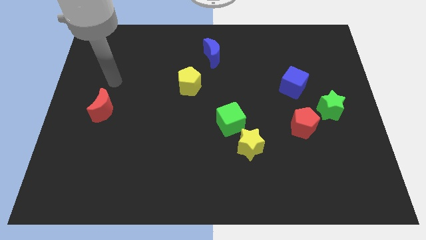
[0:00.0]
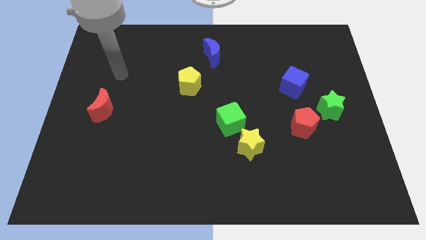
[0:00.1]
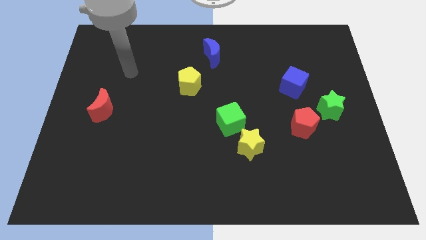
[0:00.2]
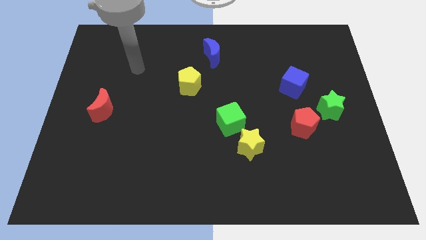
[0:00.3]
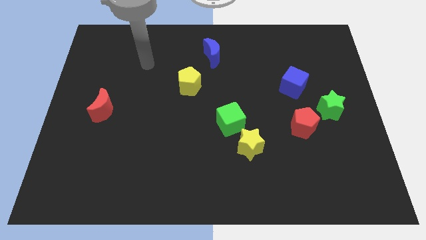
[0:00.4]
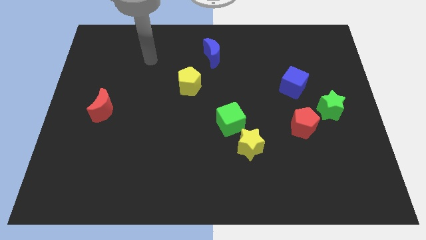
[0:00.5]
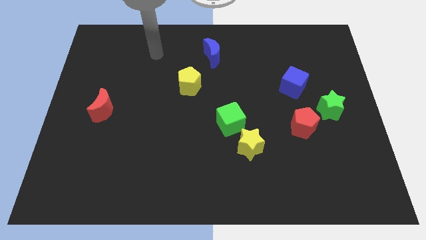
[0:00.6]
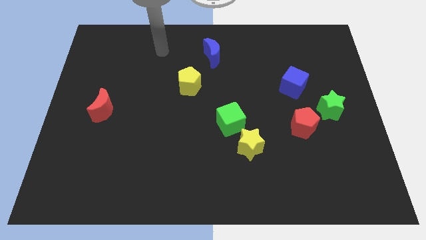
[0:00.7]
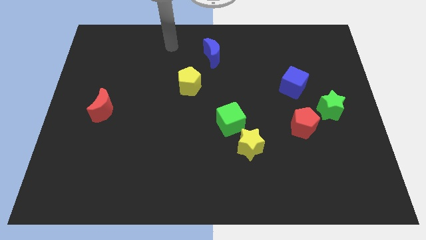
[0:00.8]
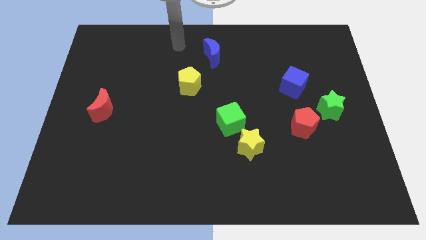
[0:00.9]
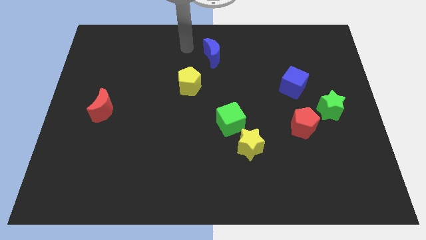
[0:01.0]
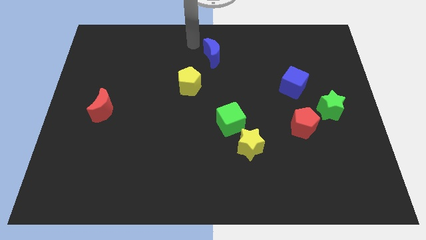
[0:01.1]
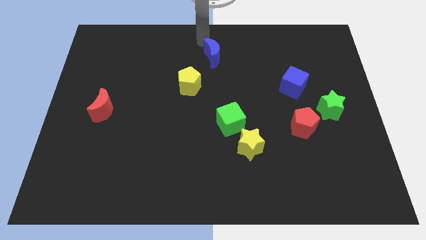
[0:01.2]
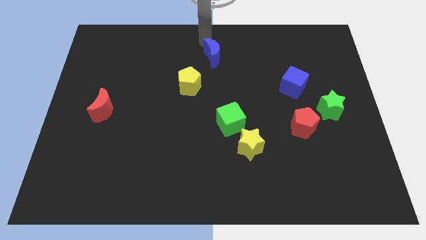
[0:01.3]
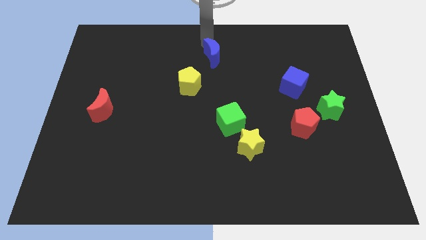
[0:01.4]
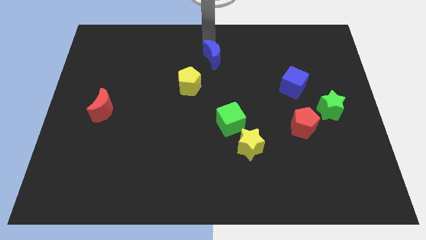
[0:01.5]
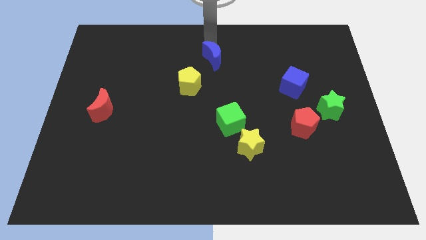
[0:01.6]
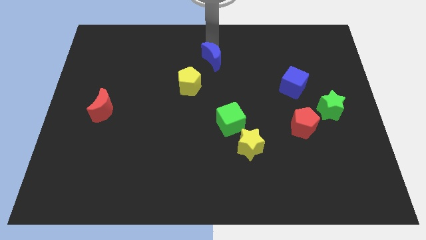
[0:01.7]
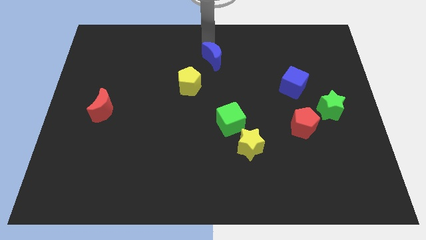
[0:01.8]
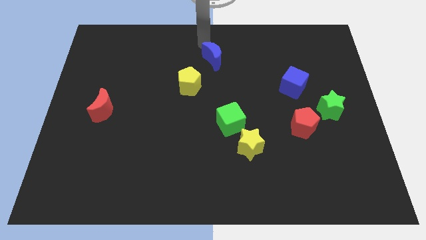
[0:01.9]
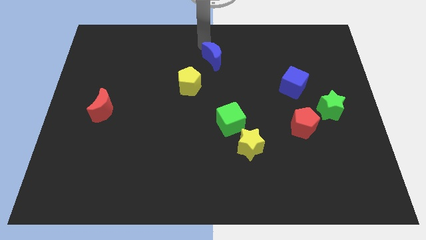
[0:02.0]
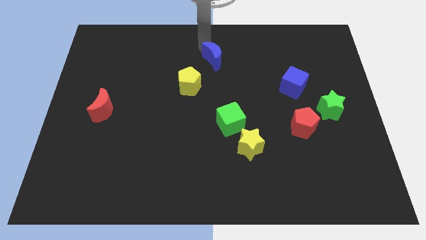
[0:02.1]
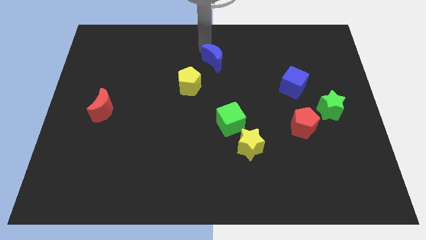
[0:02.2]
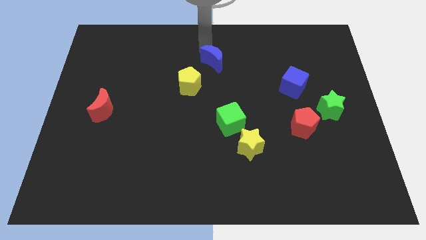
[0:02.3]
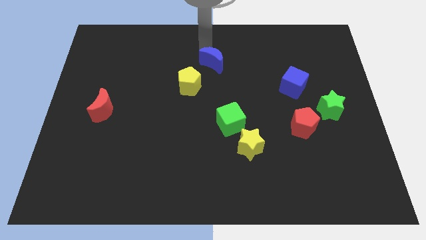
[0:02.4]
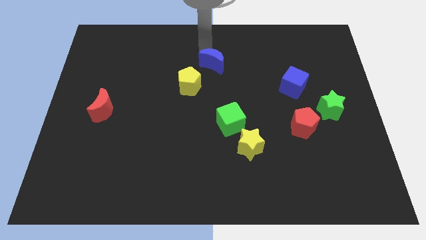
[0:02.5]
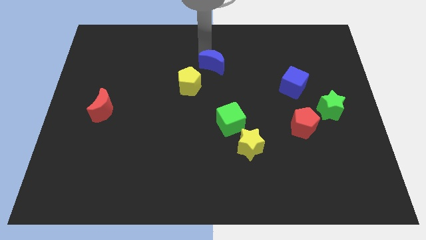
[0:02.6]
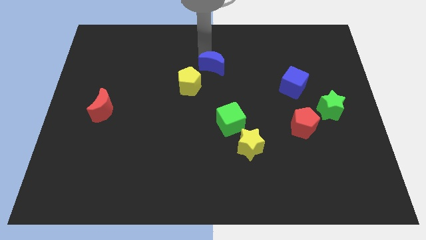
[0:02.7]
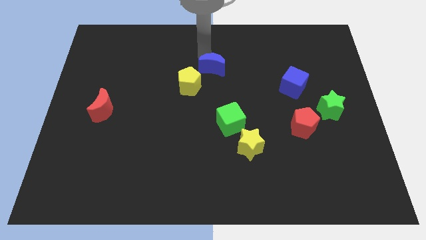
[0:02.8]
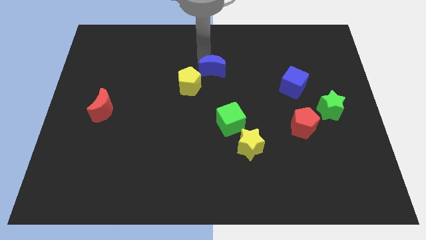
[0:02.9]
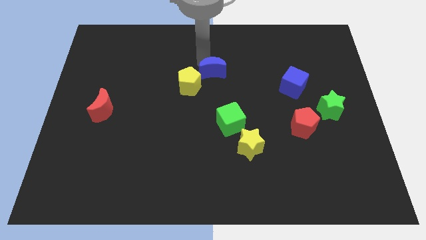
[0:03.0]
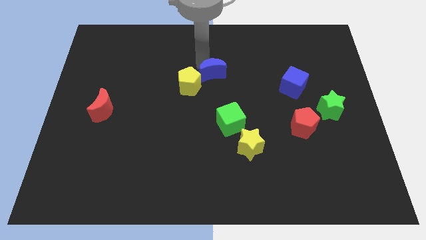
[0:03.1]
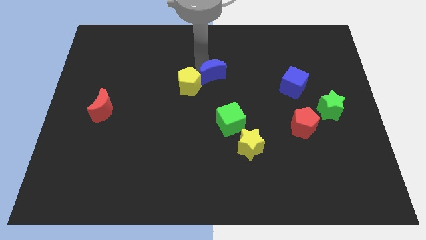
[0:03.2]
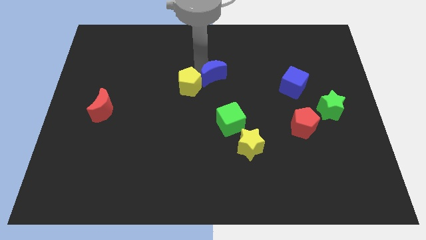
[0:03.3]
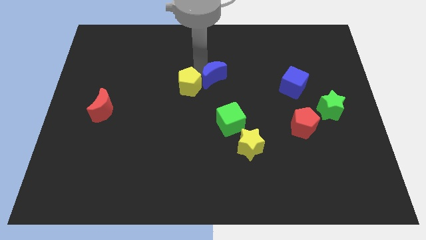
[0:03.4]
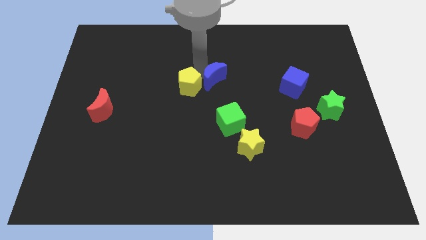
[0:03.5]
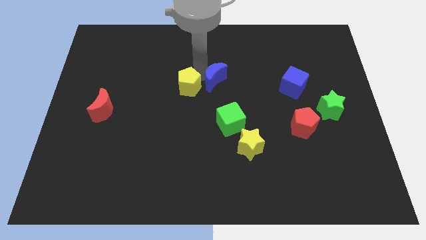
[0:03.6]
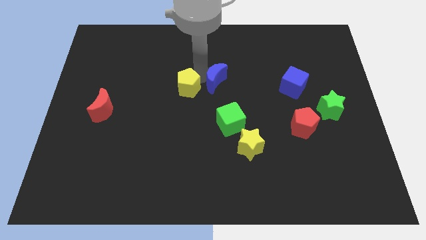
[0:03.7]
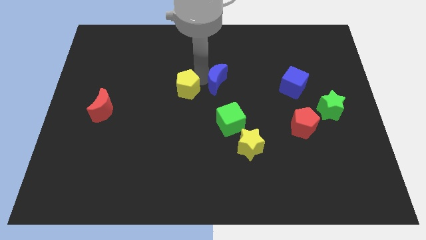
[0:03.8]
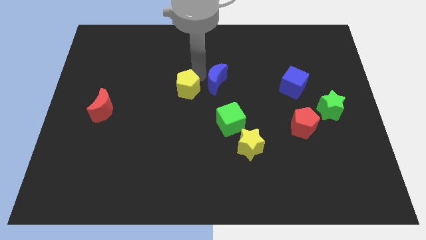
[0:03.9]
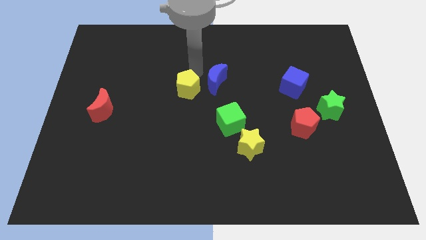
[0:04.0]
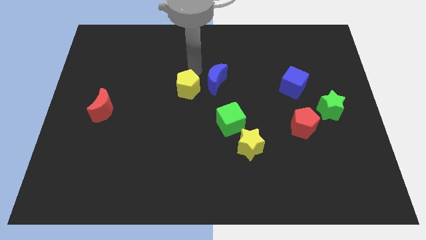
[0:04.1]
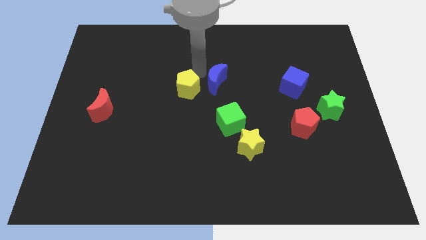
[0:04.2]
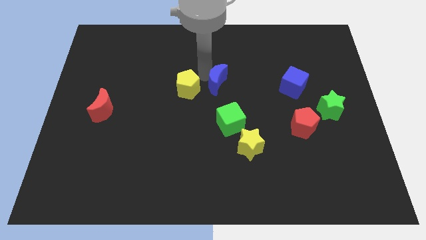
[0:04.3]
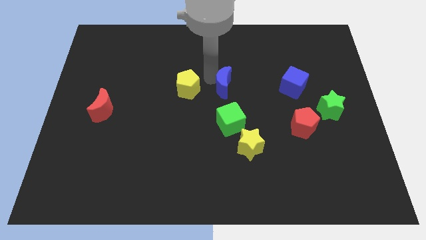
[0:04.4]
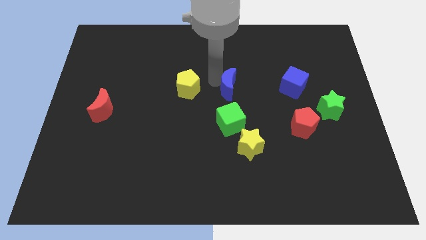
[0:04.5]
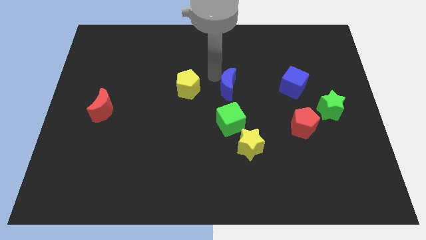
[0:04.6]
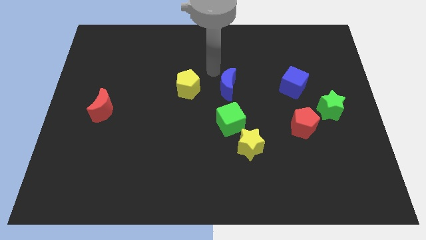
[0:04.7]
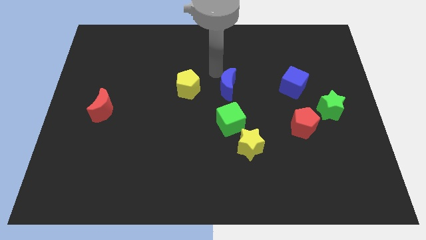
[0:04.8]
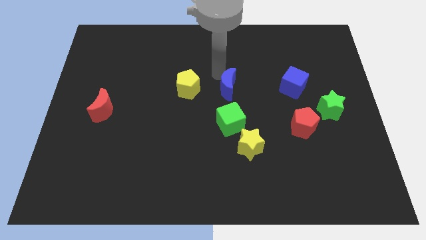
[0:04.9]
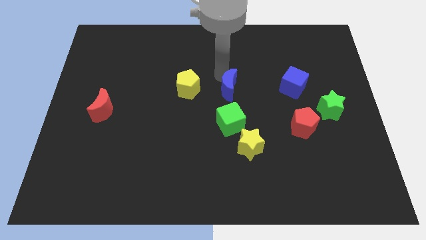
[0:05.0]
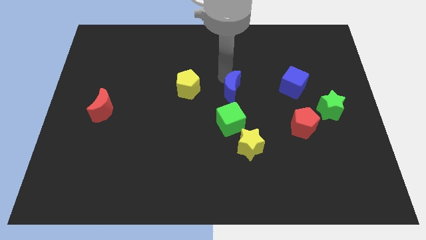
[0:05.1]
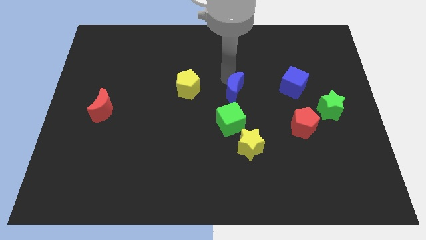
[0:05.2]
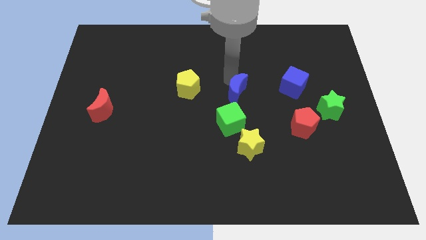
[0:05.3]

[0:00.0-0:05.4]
move the blue moon above the yellow star

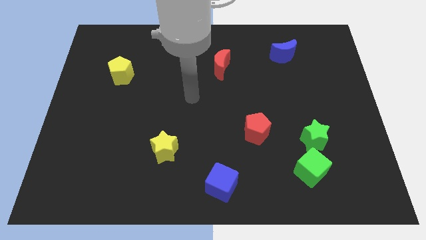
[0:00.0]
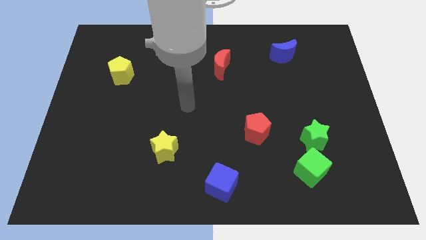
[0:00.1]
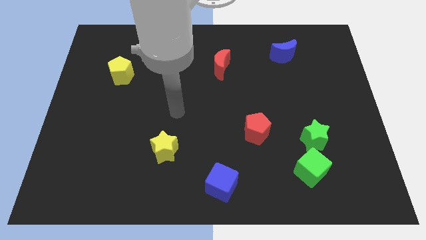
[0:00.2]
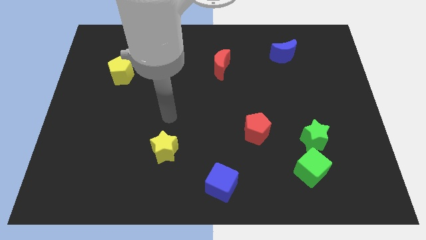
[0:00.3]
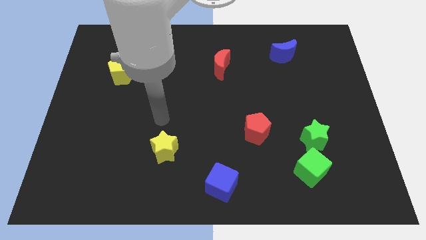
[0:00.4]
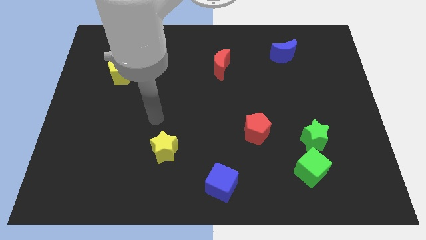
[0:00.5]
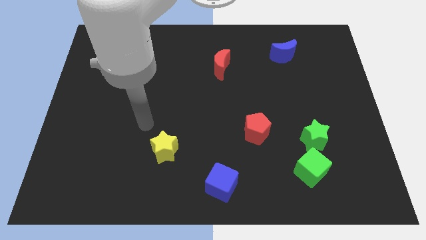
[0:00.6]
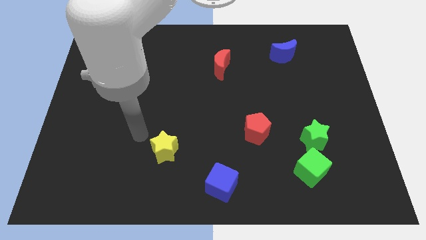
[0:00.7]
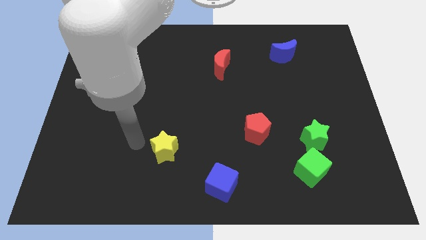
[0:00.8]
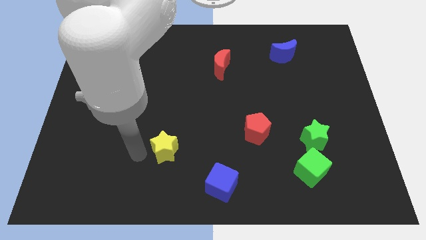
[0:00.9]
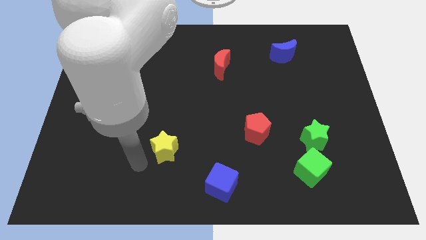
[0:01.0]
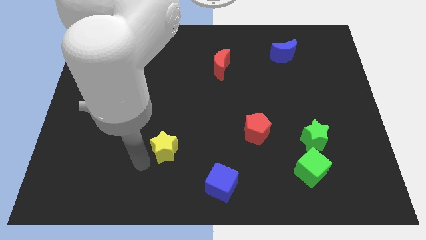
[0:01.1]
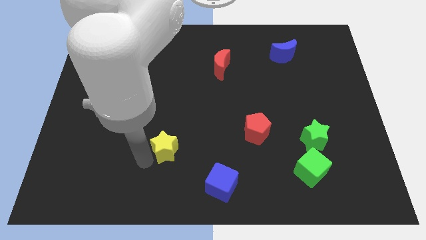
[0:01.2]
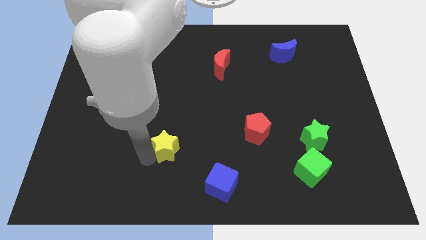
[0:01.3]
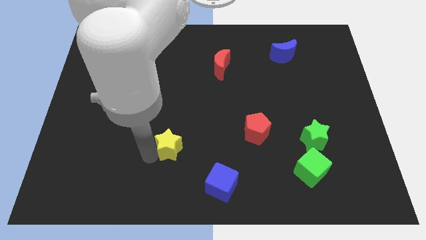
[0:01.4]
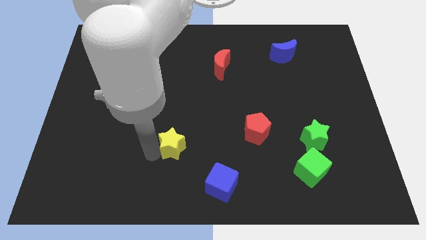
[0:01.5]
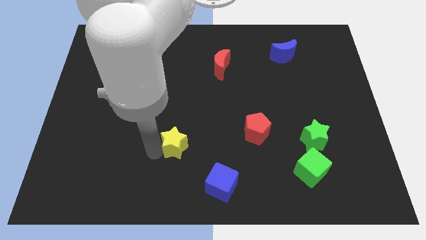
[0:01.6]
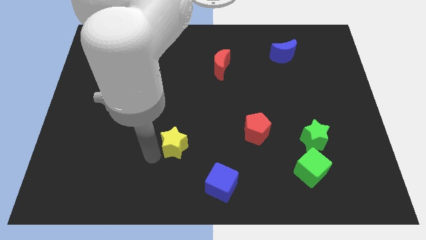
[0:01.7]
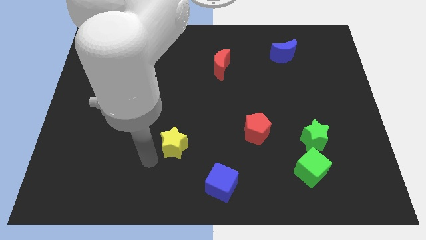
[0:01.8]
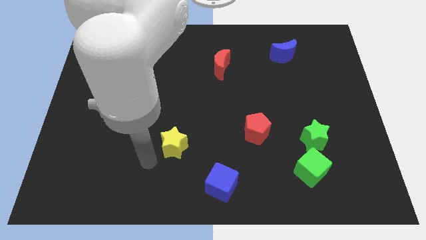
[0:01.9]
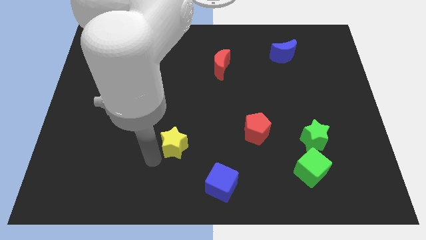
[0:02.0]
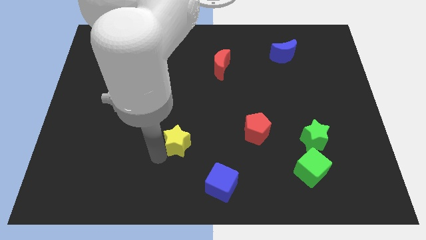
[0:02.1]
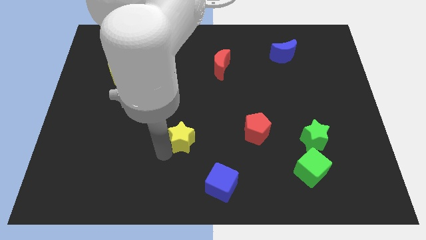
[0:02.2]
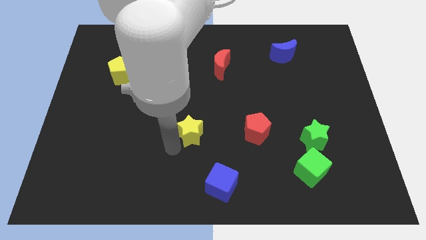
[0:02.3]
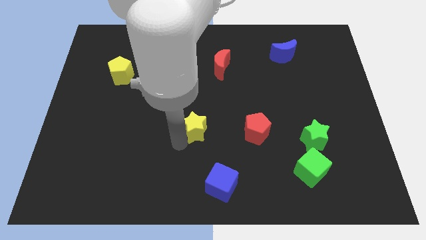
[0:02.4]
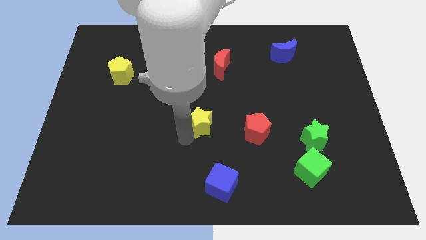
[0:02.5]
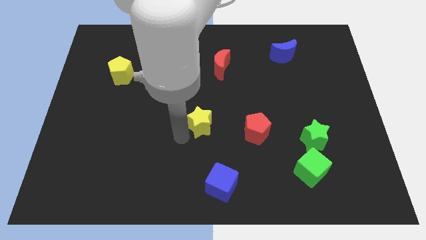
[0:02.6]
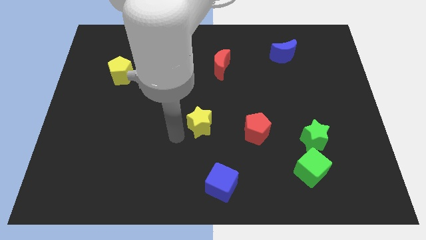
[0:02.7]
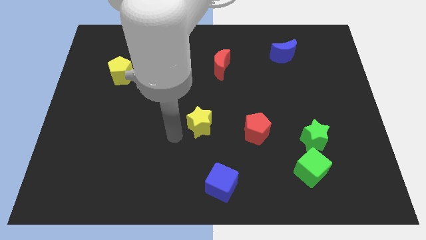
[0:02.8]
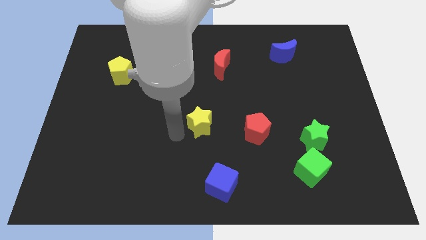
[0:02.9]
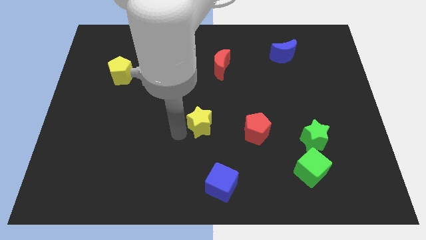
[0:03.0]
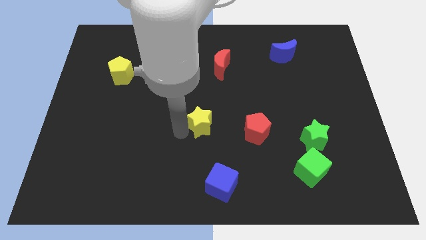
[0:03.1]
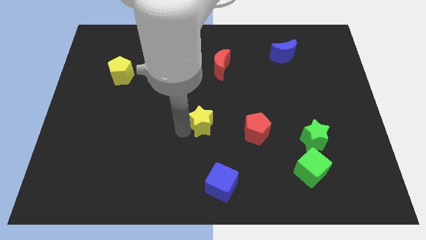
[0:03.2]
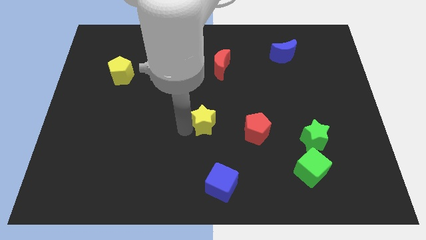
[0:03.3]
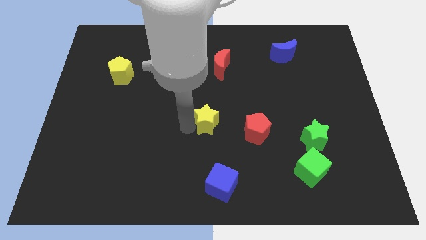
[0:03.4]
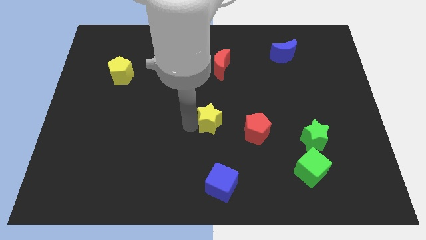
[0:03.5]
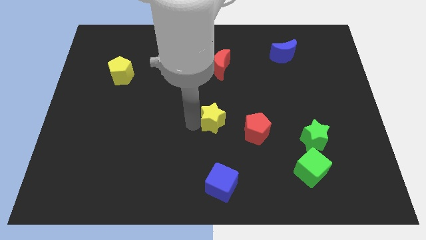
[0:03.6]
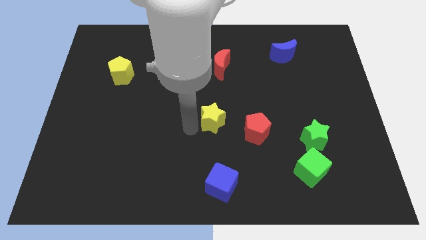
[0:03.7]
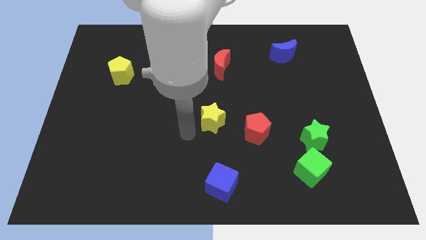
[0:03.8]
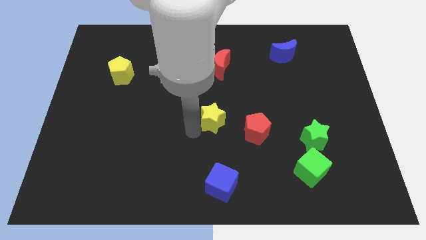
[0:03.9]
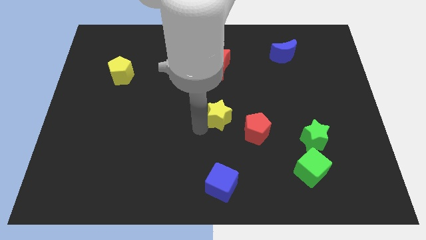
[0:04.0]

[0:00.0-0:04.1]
move the yellow star to the top left of the red pentagon
